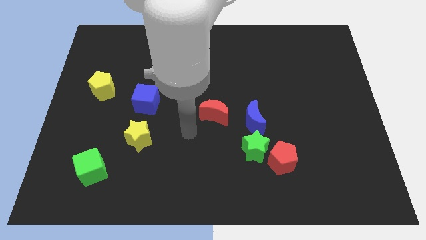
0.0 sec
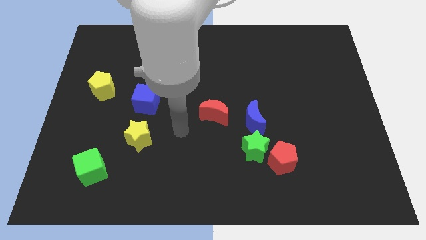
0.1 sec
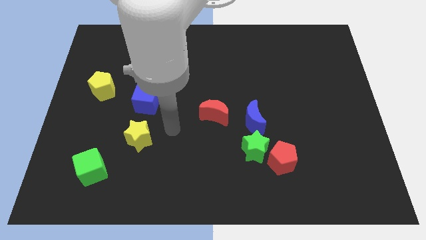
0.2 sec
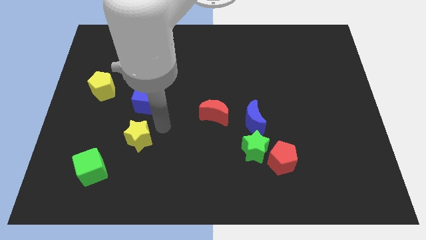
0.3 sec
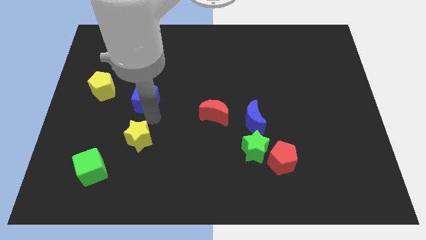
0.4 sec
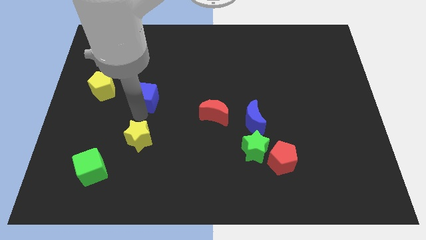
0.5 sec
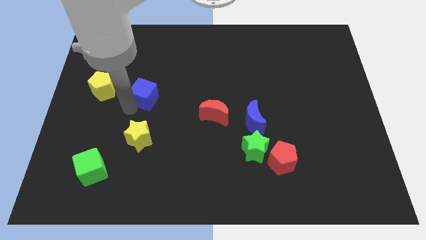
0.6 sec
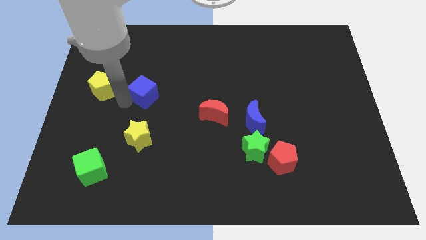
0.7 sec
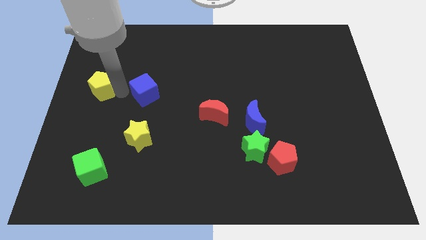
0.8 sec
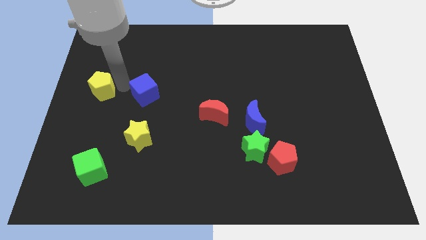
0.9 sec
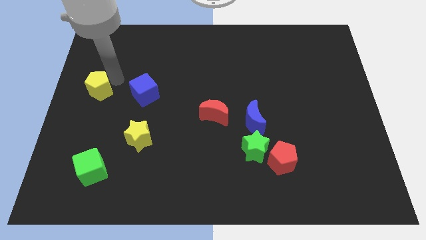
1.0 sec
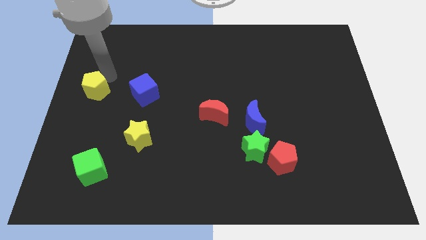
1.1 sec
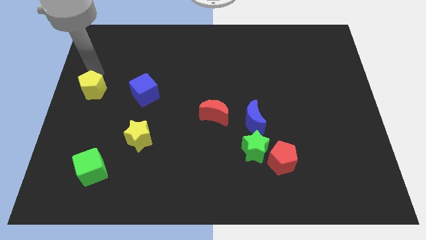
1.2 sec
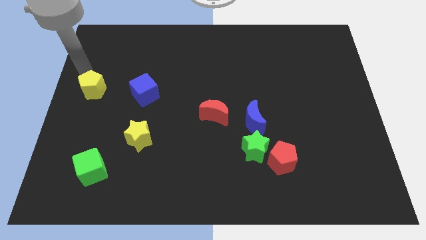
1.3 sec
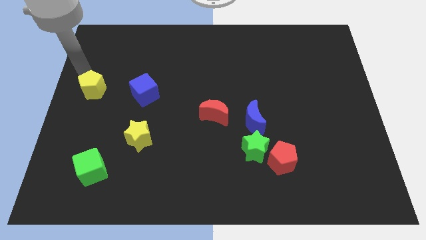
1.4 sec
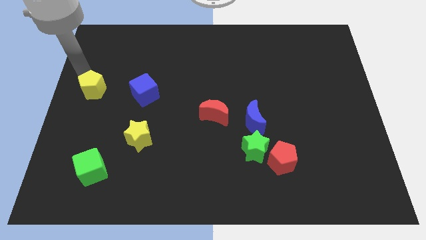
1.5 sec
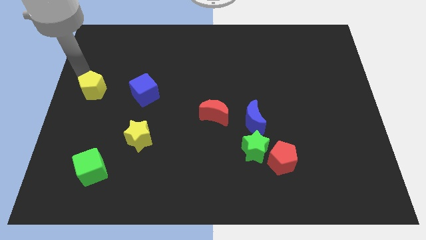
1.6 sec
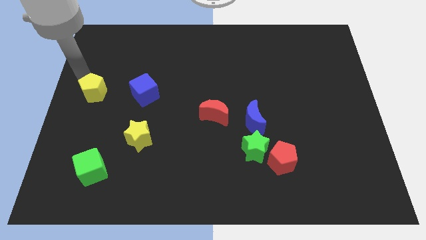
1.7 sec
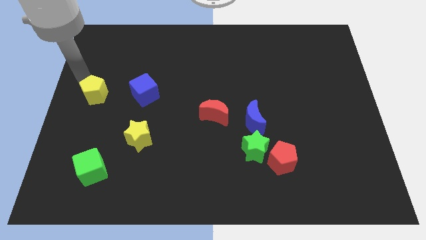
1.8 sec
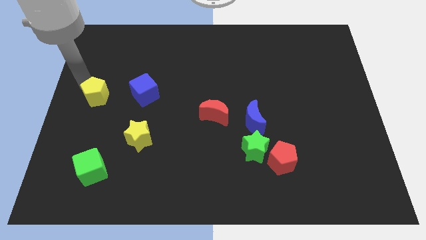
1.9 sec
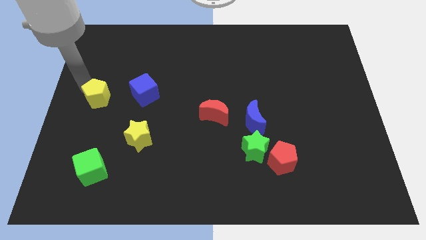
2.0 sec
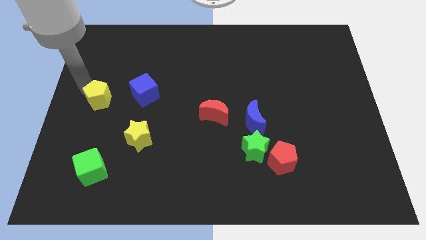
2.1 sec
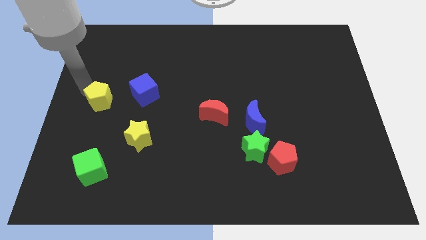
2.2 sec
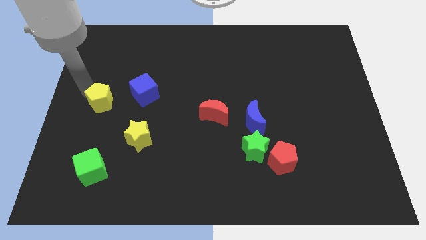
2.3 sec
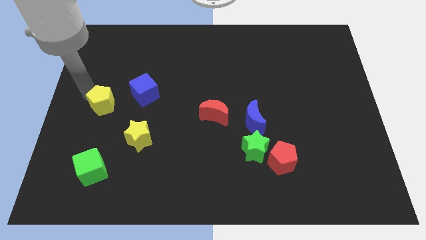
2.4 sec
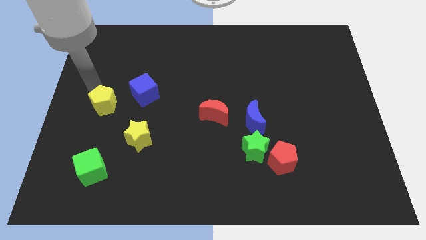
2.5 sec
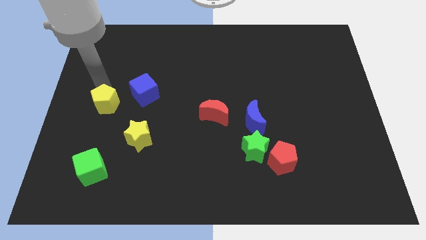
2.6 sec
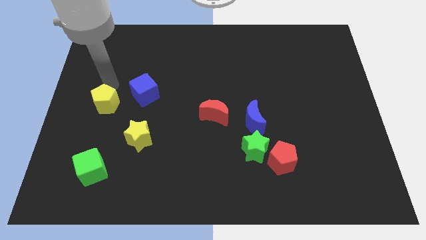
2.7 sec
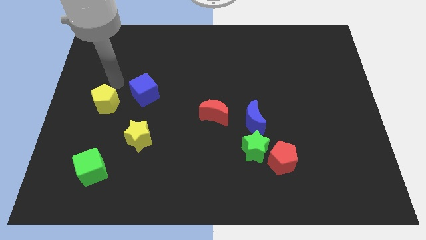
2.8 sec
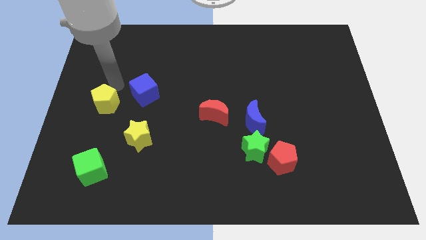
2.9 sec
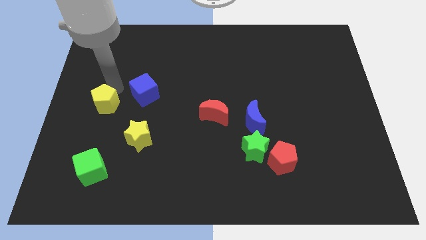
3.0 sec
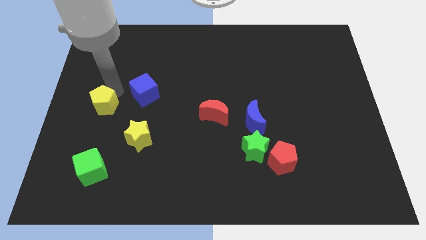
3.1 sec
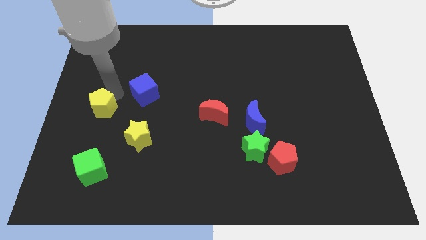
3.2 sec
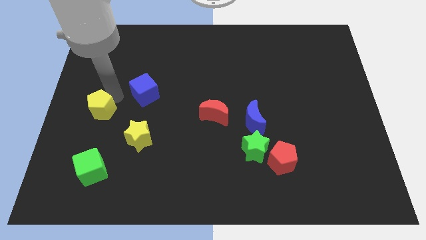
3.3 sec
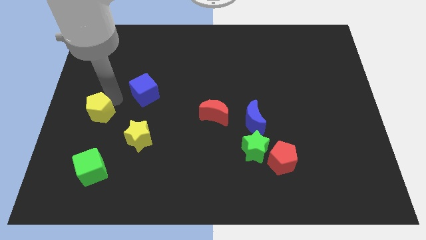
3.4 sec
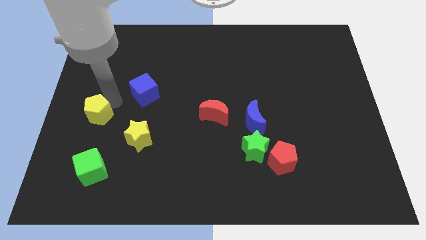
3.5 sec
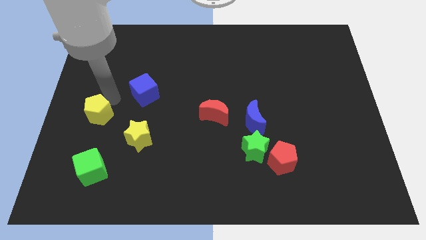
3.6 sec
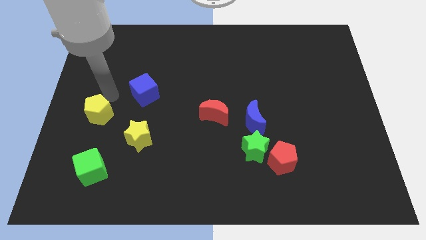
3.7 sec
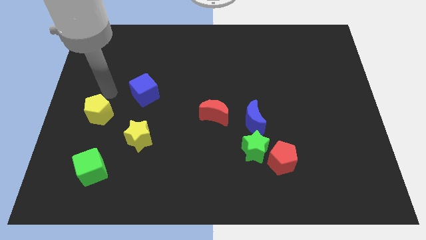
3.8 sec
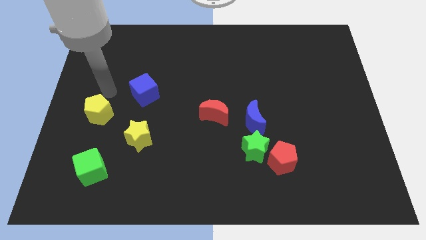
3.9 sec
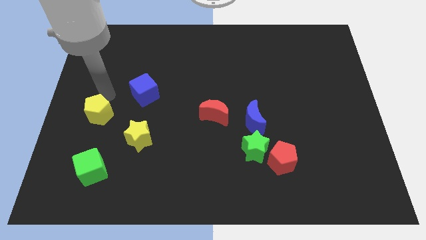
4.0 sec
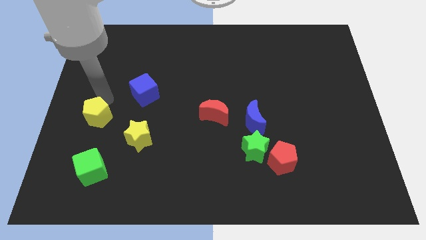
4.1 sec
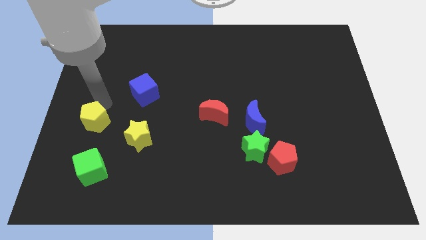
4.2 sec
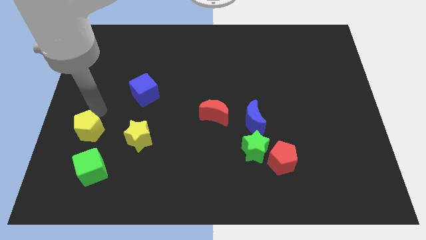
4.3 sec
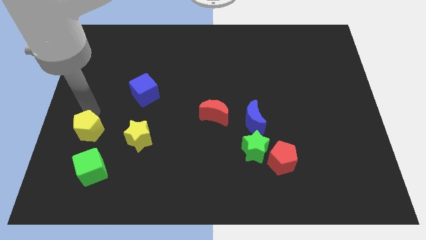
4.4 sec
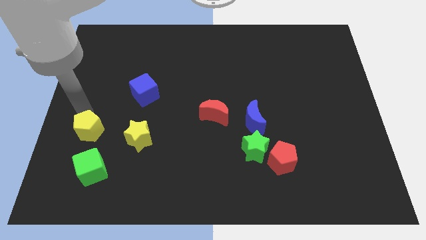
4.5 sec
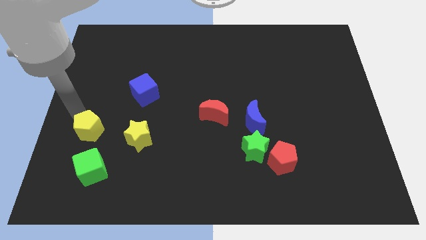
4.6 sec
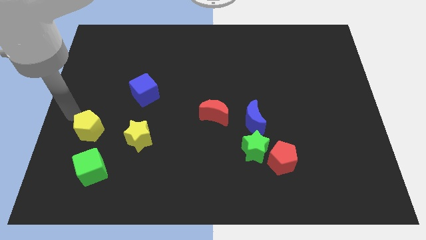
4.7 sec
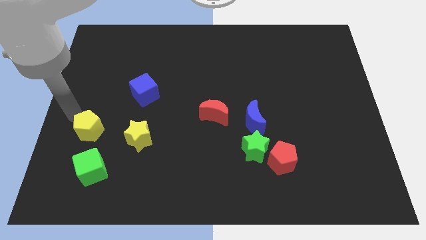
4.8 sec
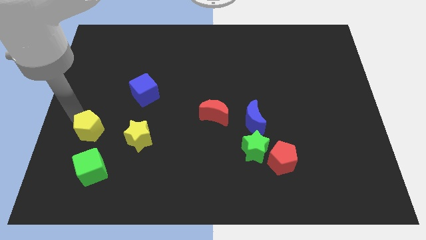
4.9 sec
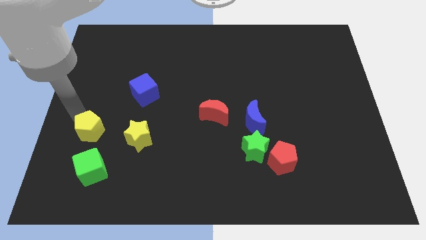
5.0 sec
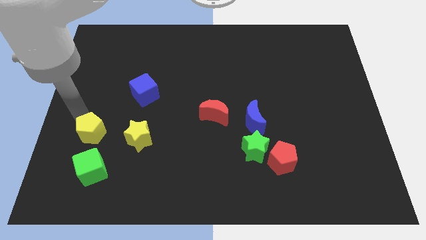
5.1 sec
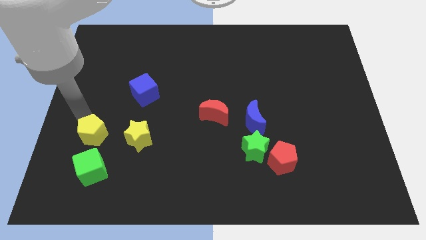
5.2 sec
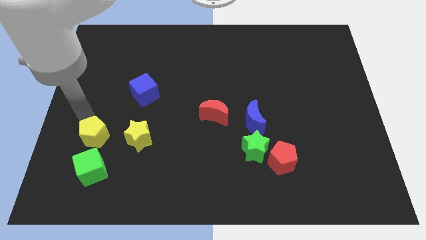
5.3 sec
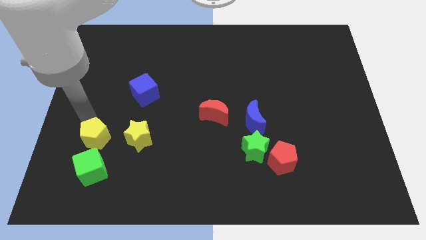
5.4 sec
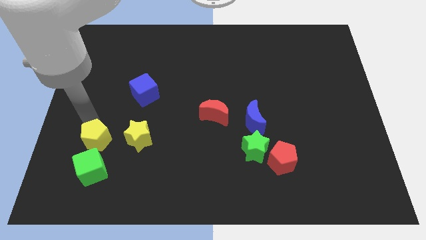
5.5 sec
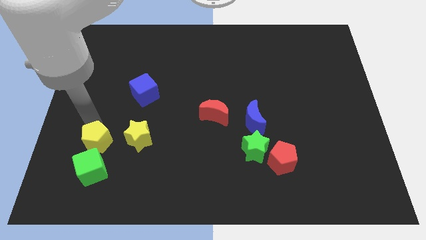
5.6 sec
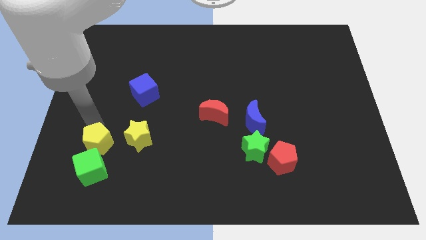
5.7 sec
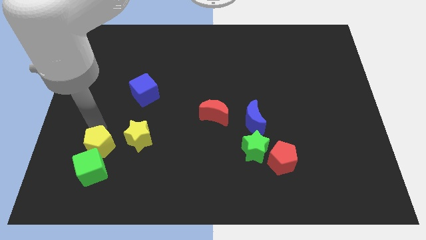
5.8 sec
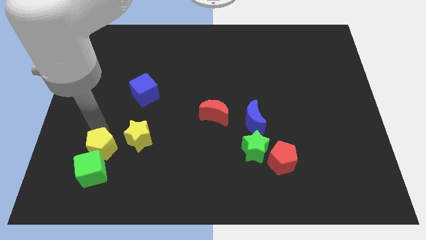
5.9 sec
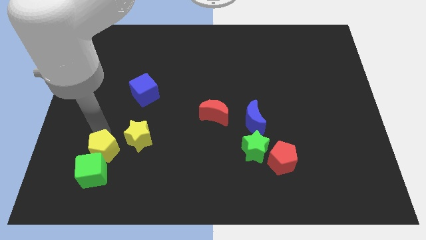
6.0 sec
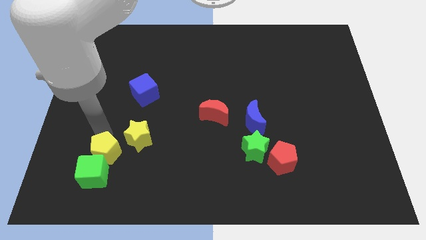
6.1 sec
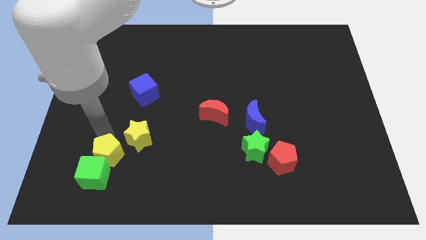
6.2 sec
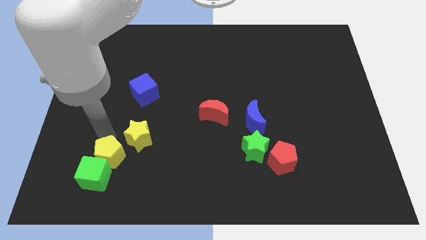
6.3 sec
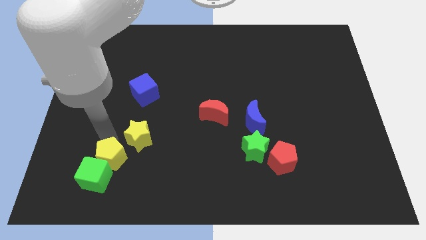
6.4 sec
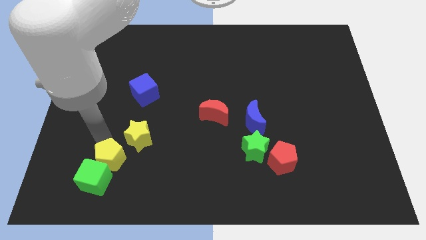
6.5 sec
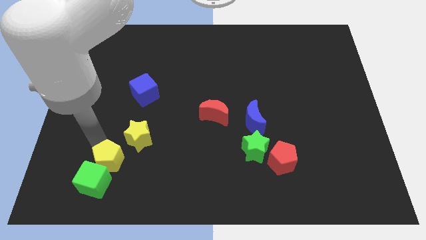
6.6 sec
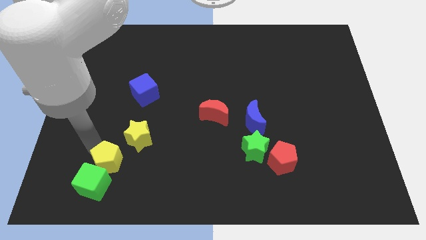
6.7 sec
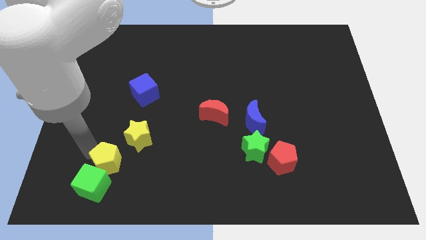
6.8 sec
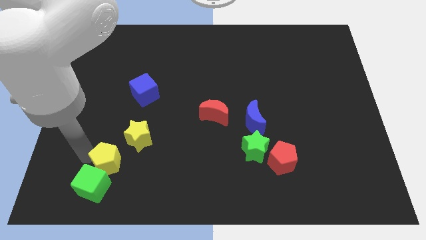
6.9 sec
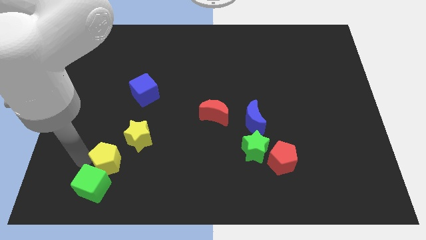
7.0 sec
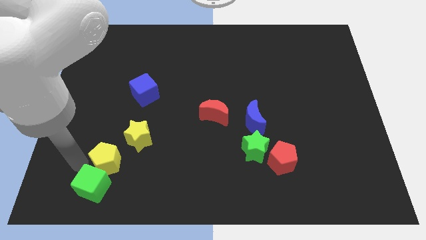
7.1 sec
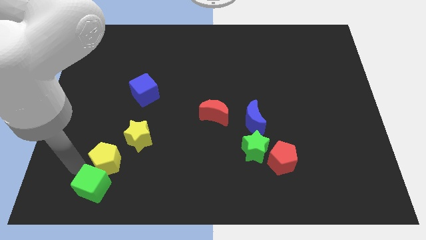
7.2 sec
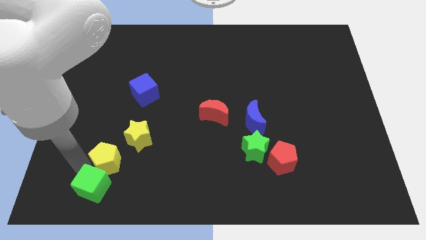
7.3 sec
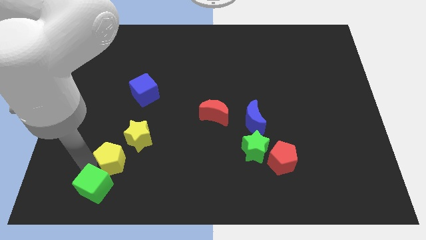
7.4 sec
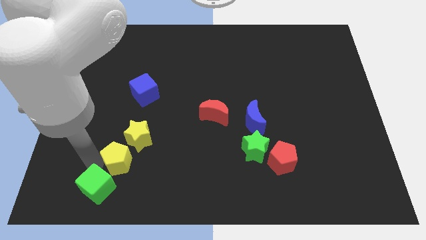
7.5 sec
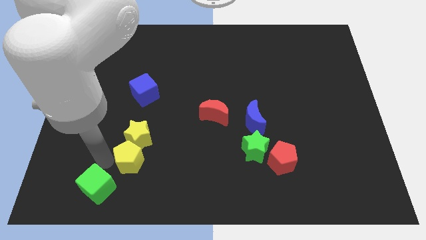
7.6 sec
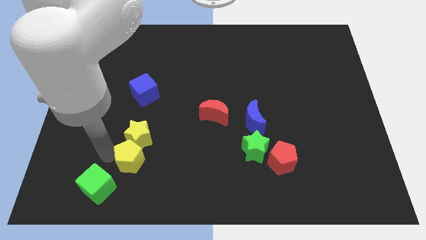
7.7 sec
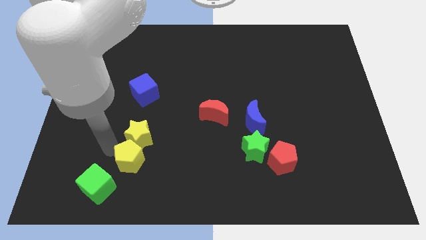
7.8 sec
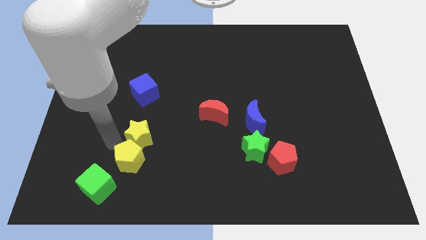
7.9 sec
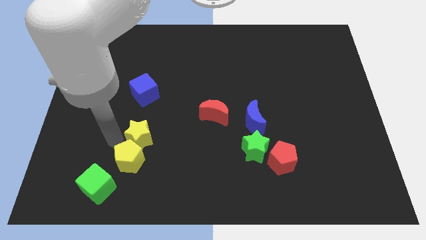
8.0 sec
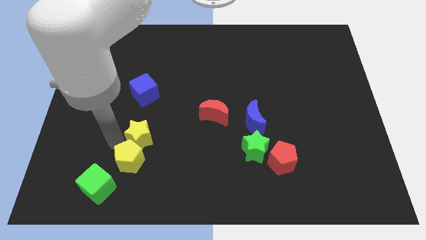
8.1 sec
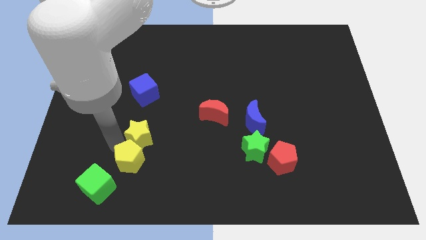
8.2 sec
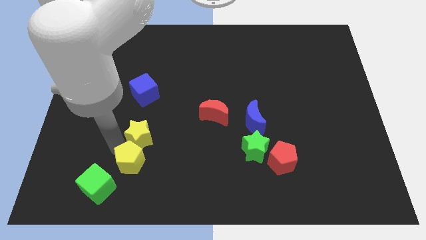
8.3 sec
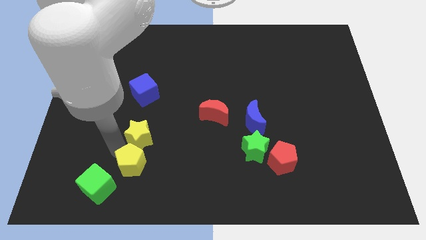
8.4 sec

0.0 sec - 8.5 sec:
put the yellow pentagon right of the green cube
